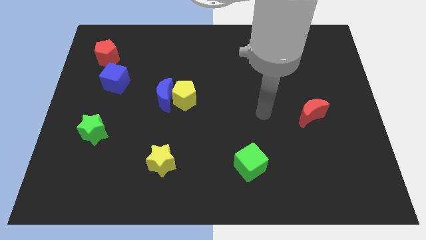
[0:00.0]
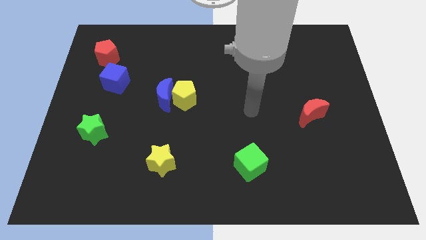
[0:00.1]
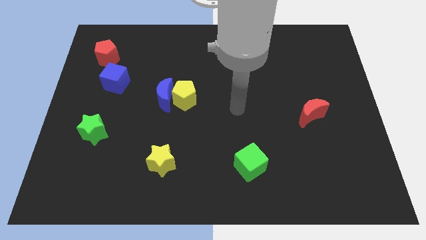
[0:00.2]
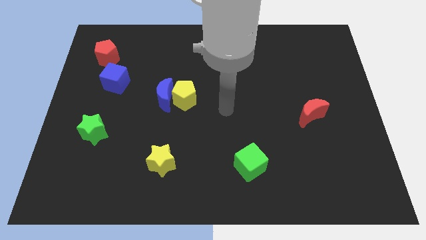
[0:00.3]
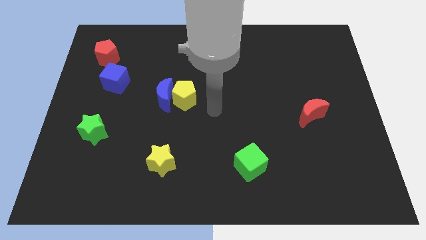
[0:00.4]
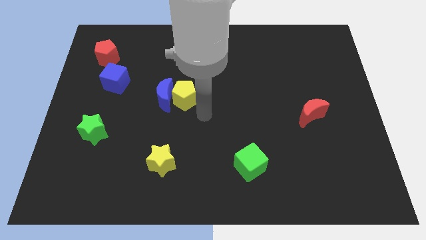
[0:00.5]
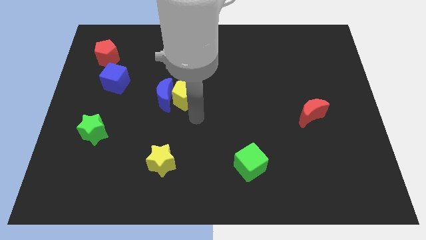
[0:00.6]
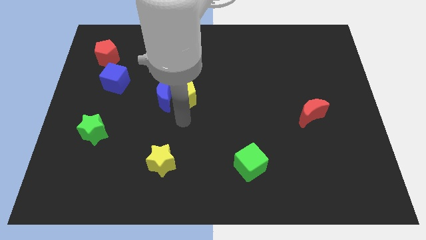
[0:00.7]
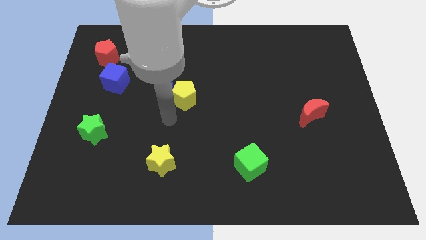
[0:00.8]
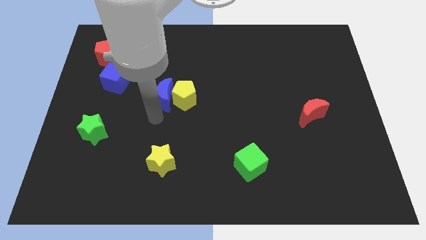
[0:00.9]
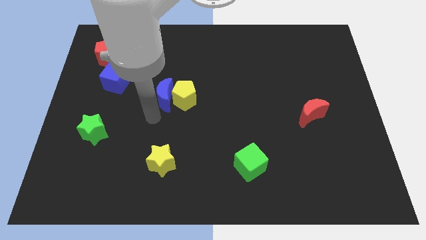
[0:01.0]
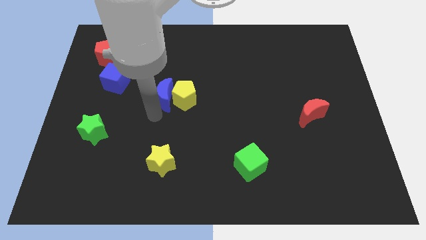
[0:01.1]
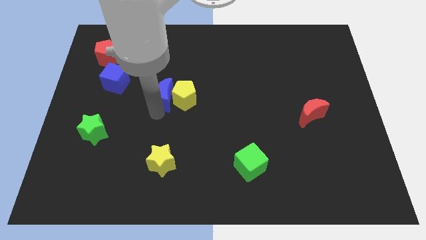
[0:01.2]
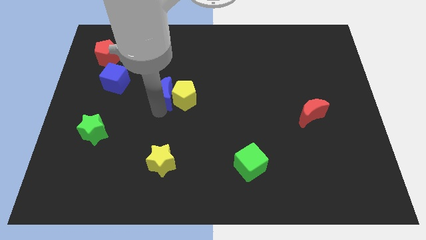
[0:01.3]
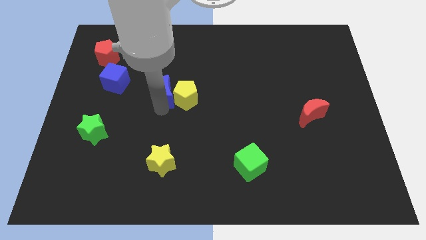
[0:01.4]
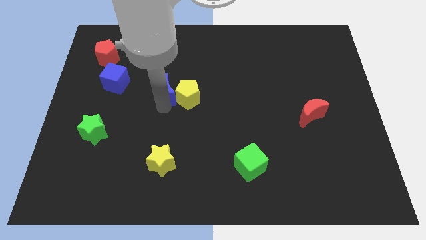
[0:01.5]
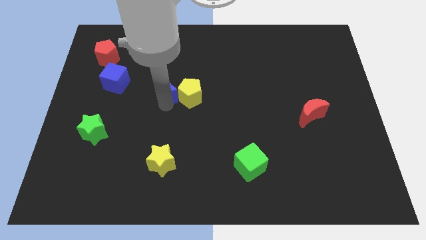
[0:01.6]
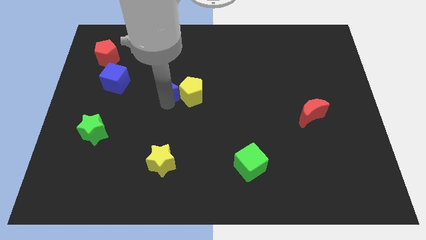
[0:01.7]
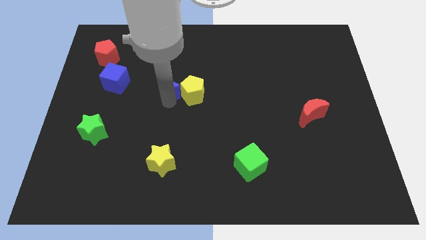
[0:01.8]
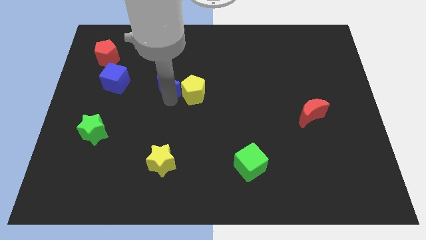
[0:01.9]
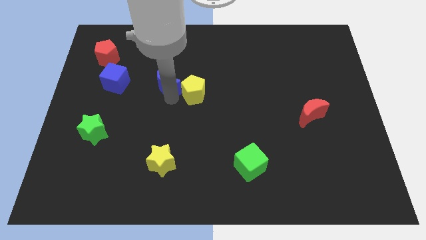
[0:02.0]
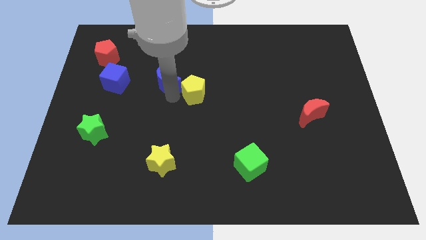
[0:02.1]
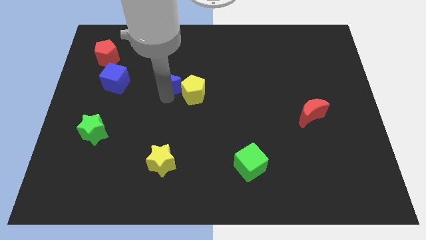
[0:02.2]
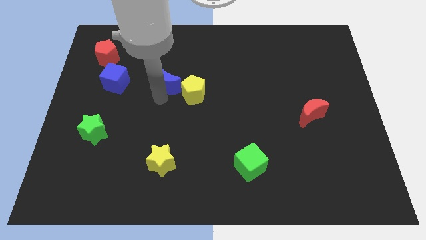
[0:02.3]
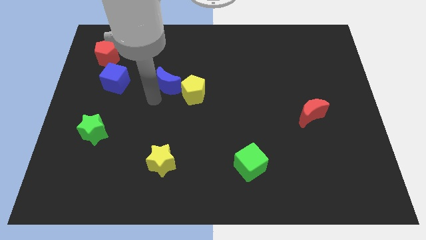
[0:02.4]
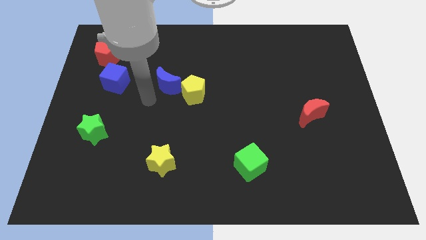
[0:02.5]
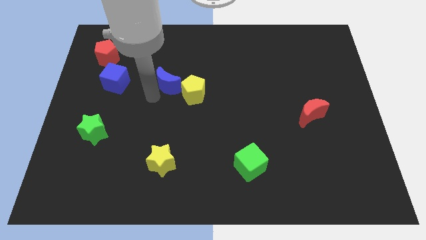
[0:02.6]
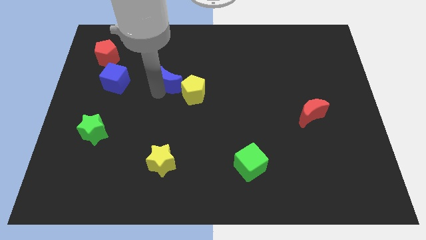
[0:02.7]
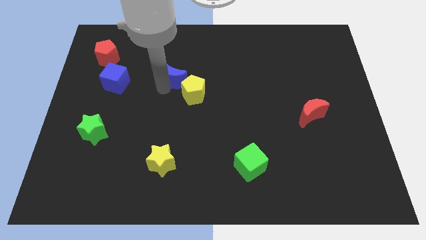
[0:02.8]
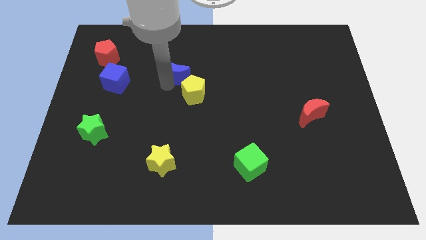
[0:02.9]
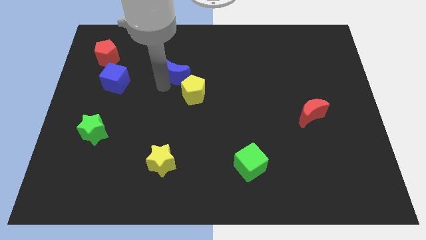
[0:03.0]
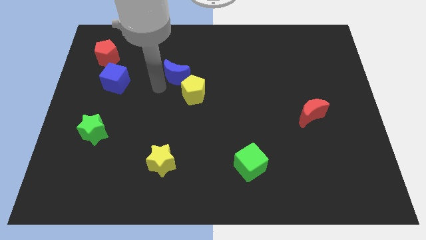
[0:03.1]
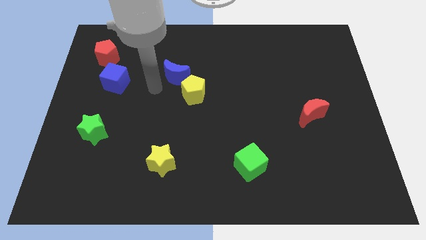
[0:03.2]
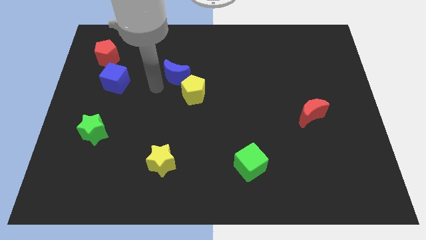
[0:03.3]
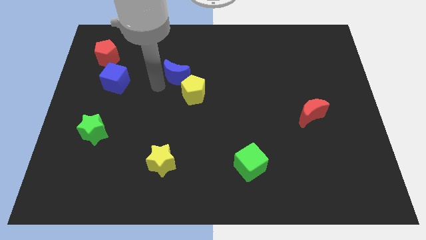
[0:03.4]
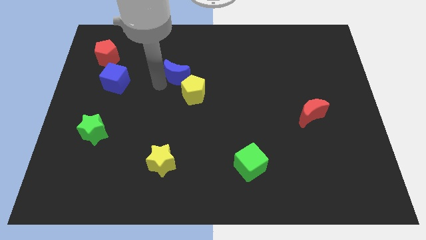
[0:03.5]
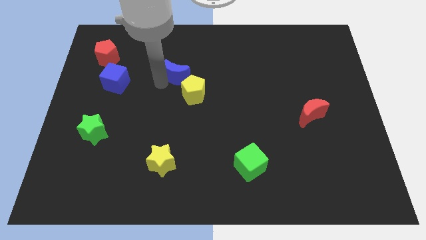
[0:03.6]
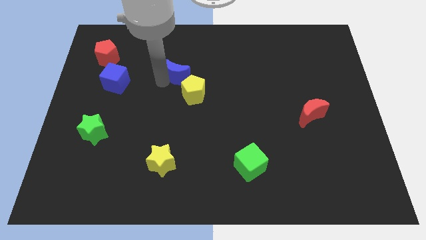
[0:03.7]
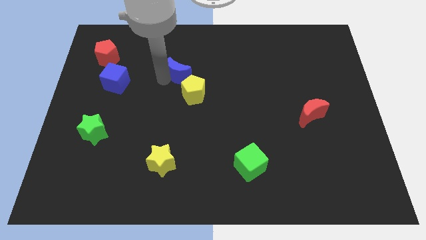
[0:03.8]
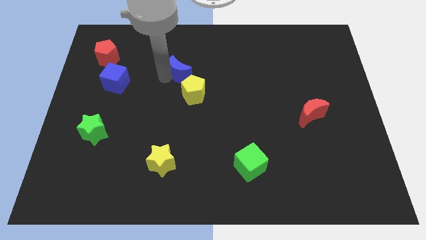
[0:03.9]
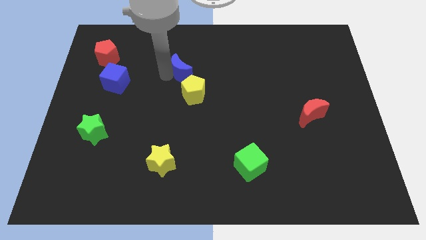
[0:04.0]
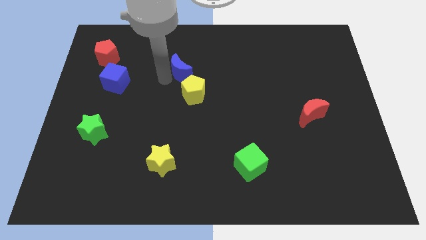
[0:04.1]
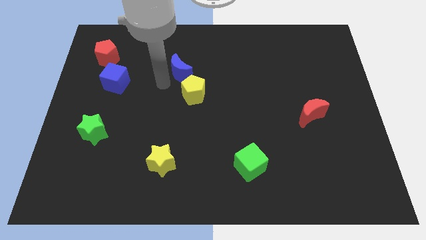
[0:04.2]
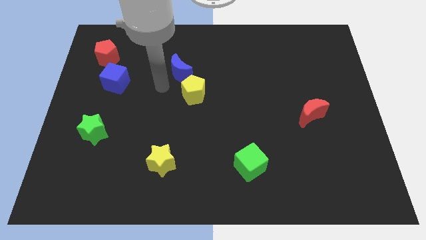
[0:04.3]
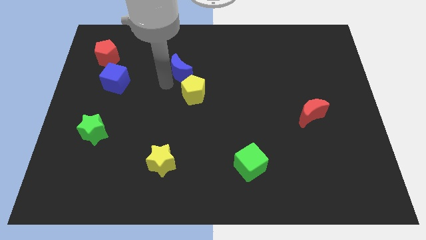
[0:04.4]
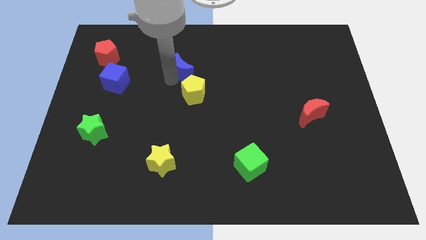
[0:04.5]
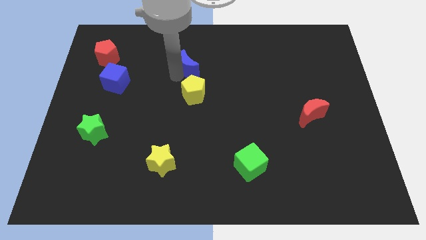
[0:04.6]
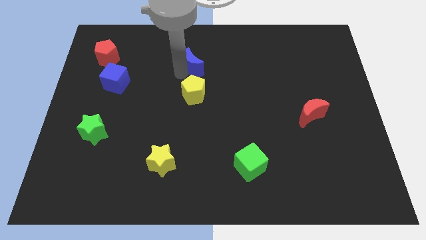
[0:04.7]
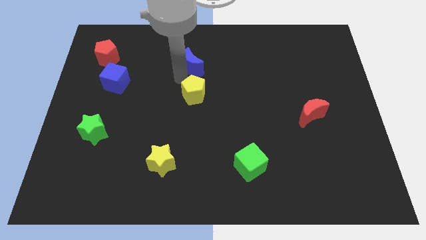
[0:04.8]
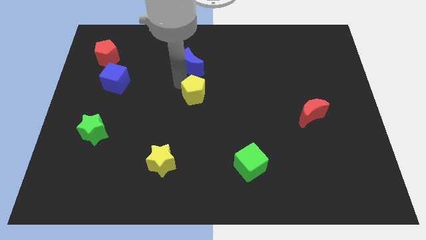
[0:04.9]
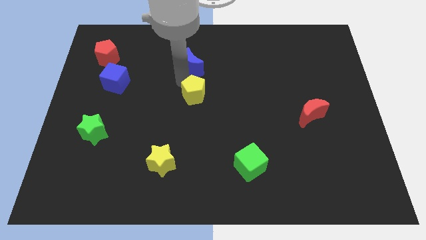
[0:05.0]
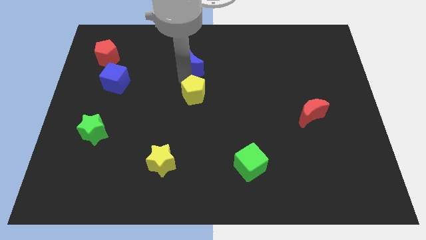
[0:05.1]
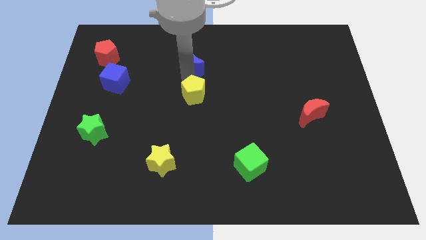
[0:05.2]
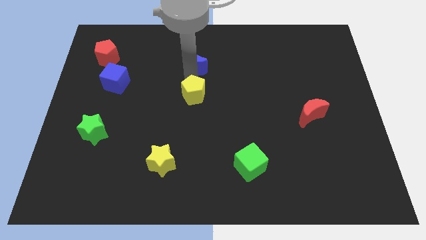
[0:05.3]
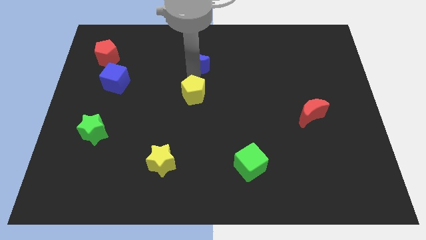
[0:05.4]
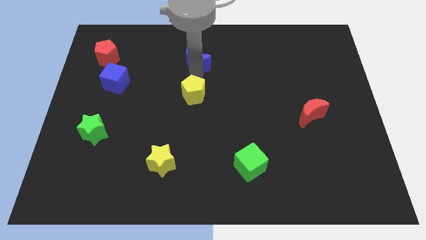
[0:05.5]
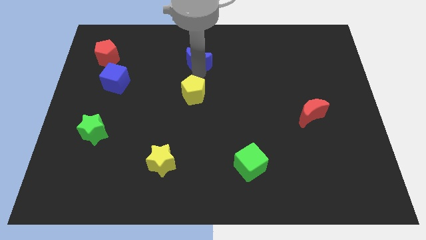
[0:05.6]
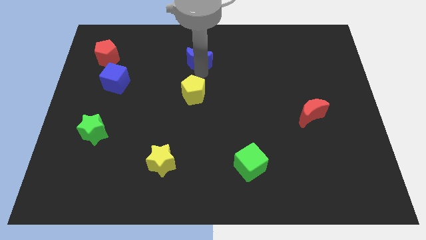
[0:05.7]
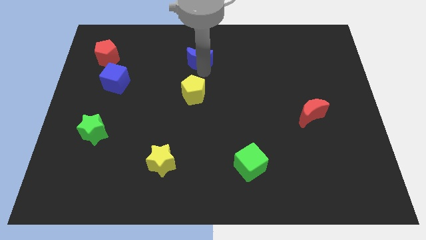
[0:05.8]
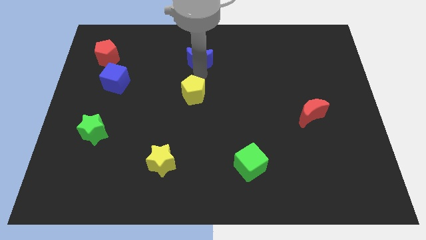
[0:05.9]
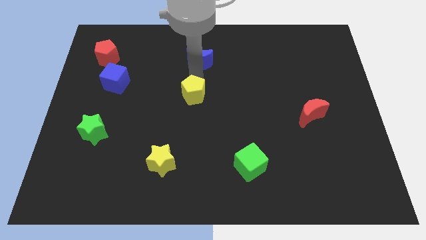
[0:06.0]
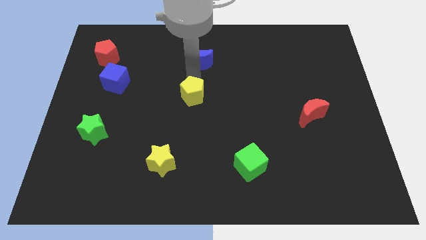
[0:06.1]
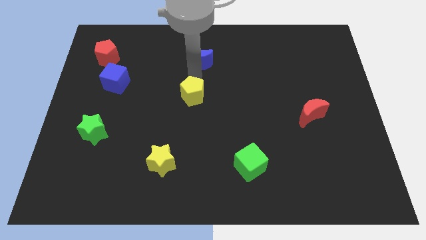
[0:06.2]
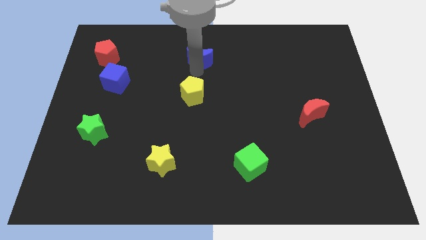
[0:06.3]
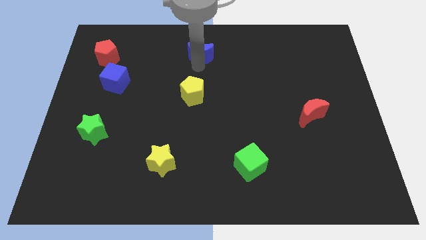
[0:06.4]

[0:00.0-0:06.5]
put the blue moon to the top

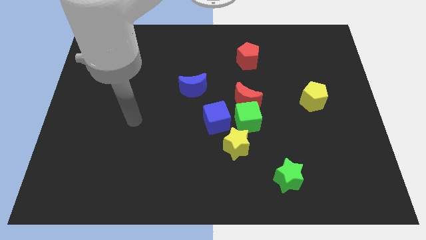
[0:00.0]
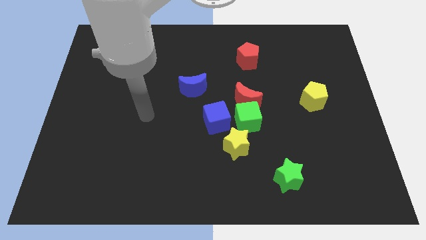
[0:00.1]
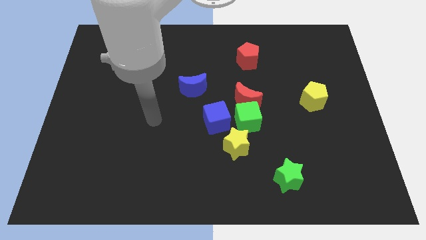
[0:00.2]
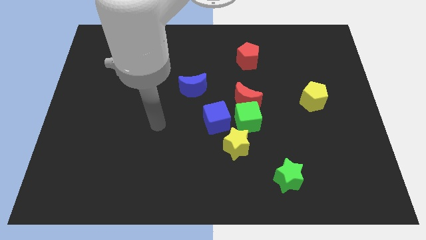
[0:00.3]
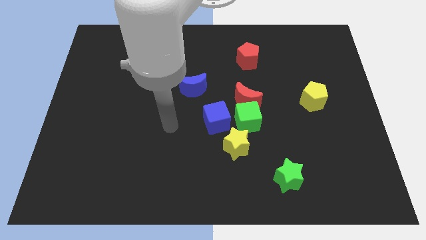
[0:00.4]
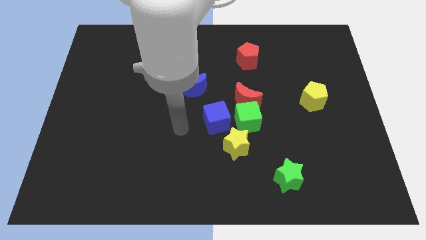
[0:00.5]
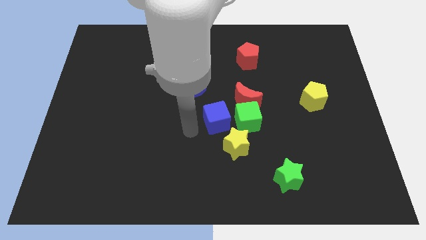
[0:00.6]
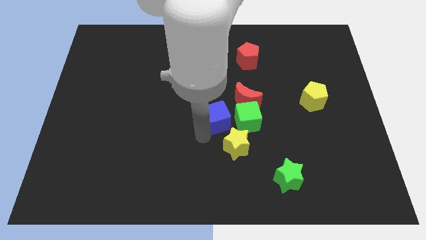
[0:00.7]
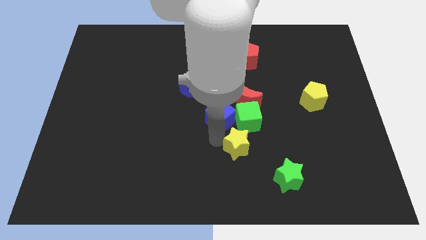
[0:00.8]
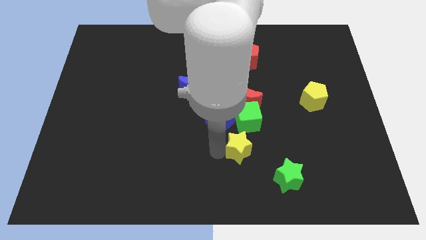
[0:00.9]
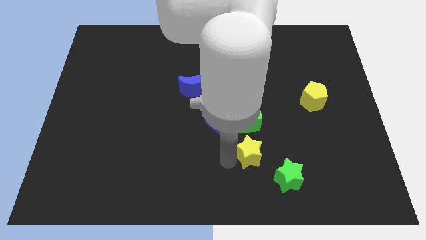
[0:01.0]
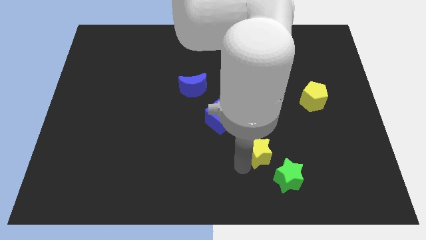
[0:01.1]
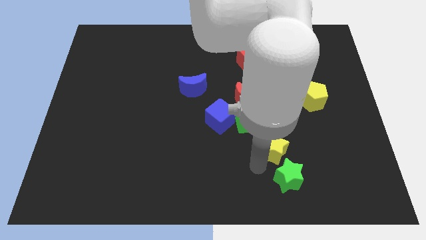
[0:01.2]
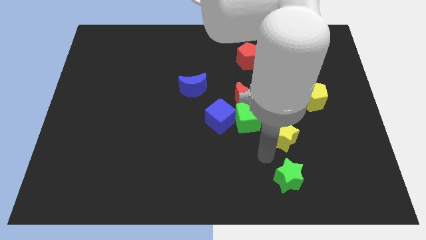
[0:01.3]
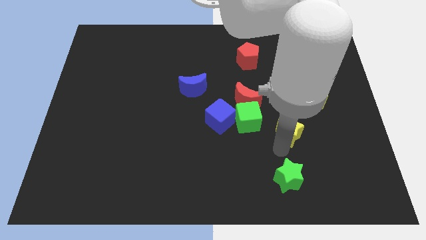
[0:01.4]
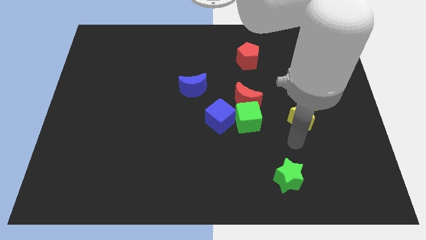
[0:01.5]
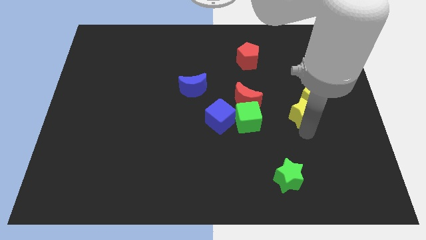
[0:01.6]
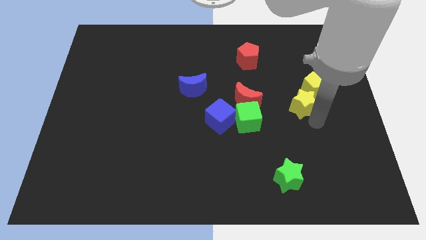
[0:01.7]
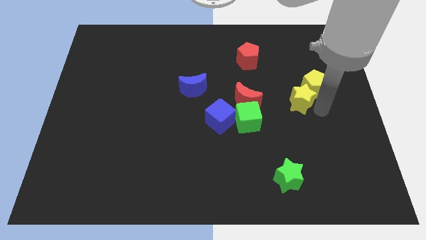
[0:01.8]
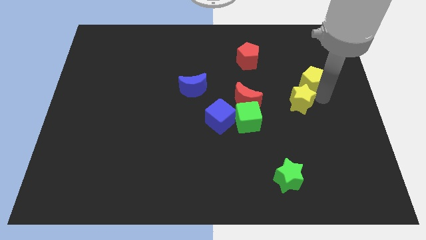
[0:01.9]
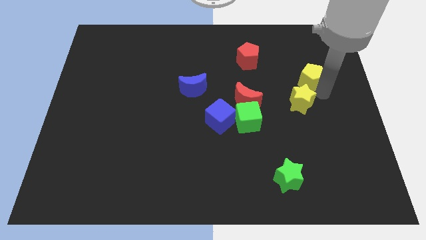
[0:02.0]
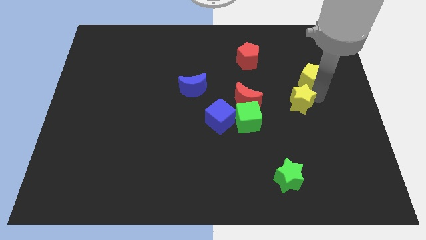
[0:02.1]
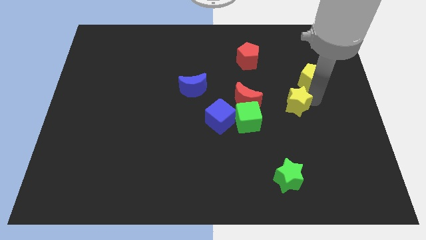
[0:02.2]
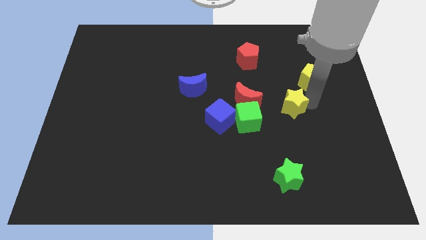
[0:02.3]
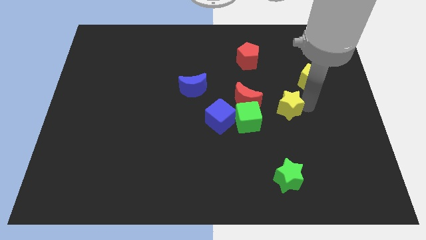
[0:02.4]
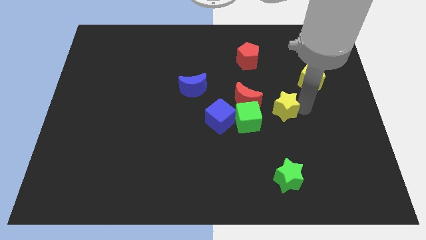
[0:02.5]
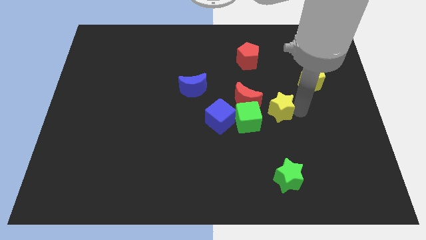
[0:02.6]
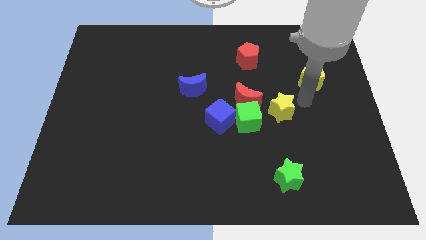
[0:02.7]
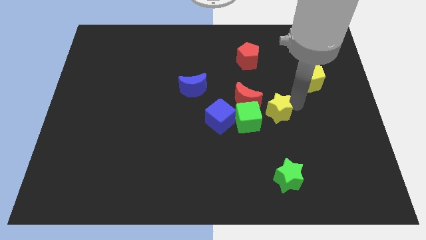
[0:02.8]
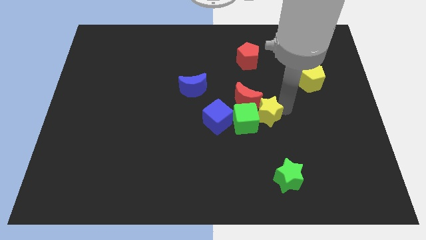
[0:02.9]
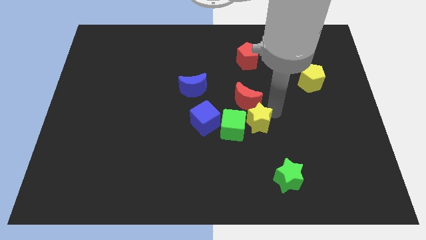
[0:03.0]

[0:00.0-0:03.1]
slide the yellow star to the middle
